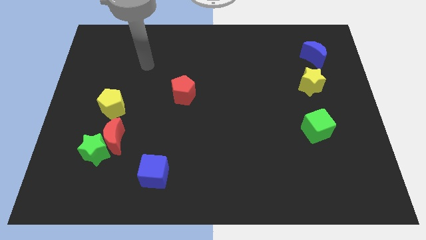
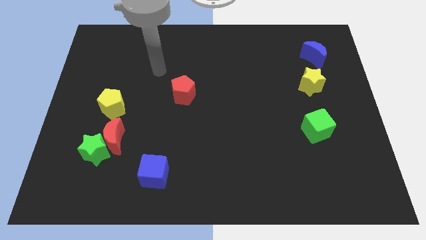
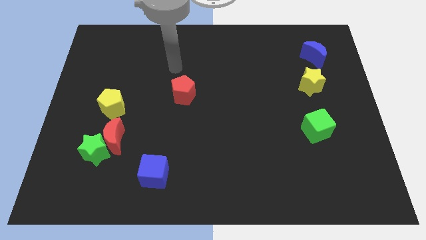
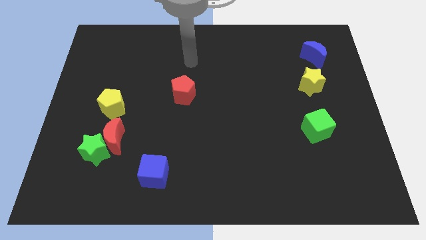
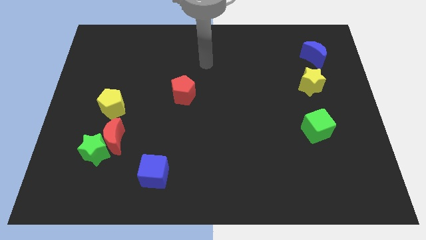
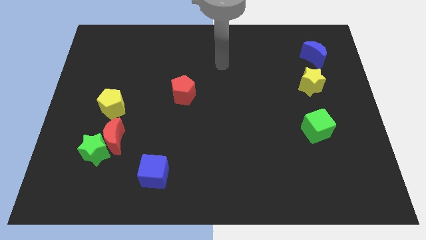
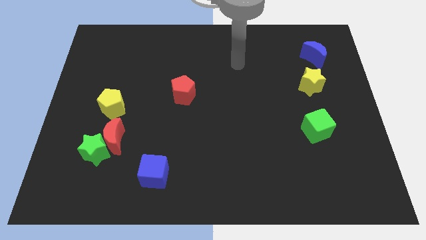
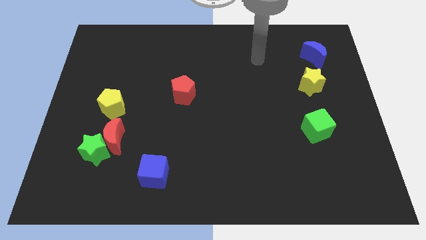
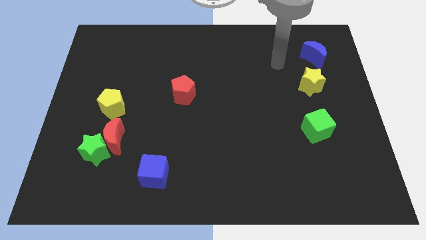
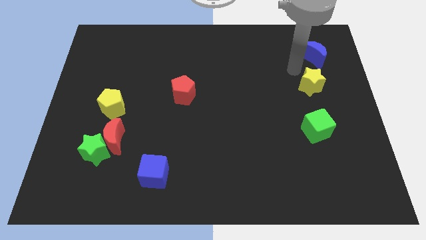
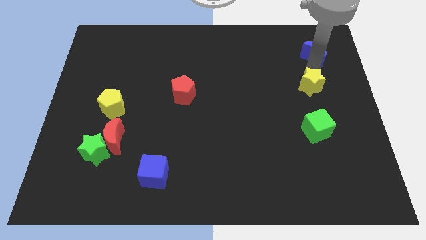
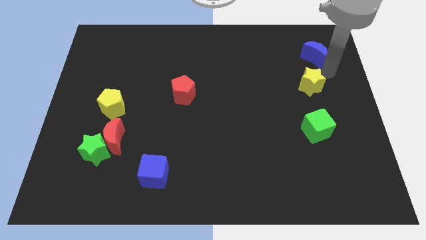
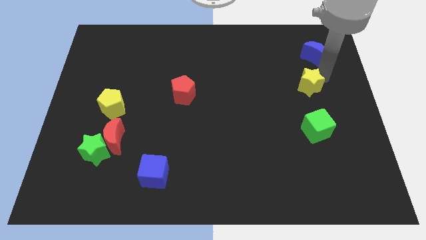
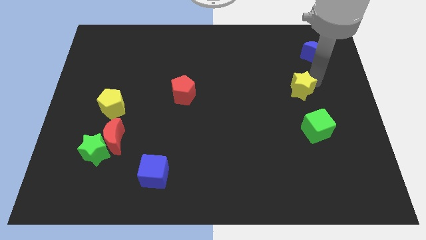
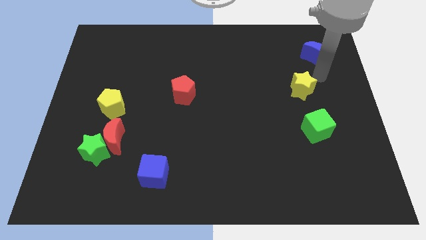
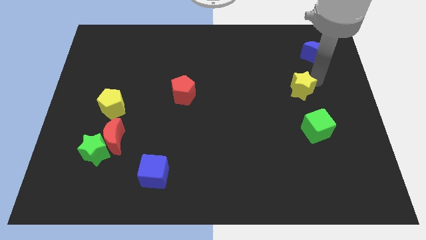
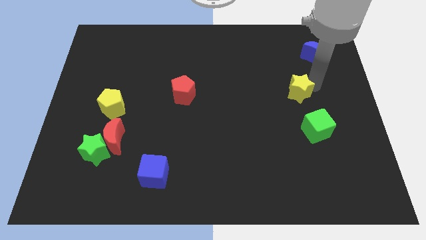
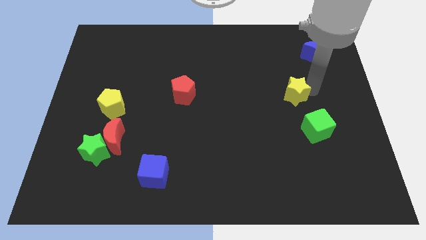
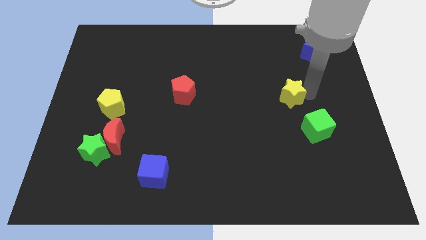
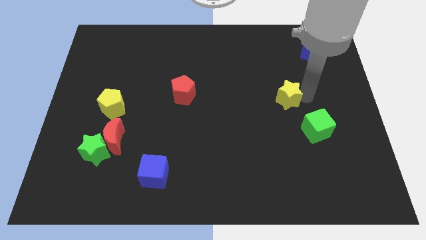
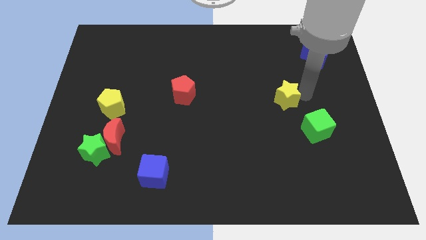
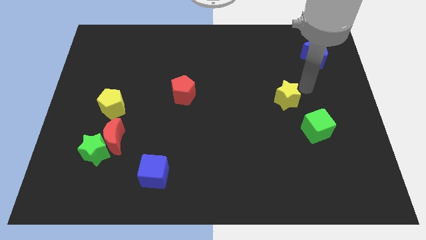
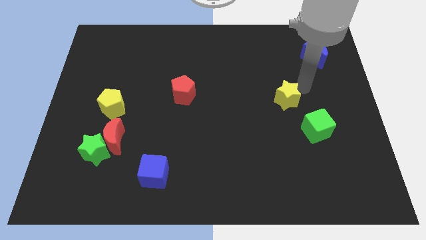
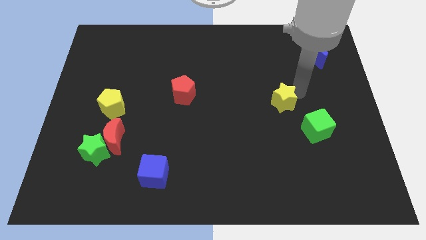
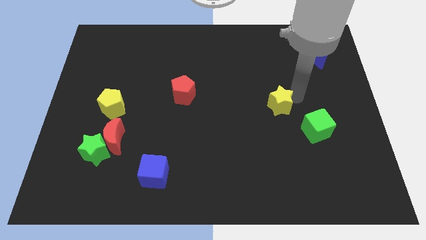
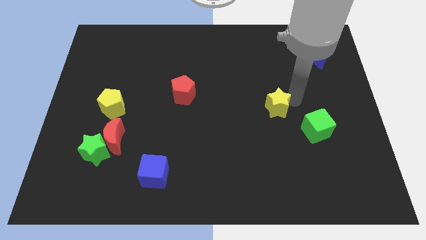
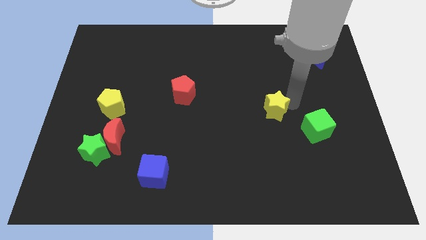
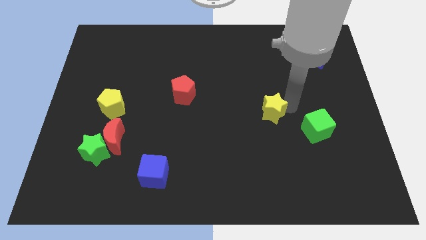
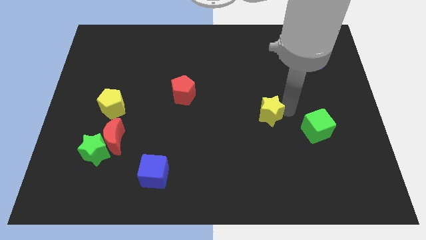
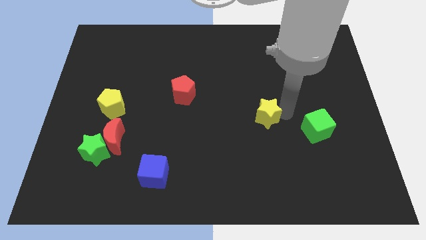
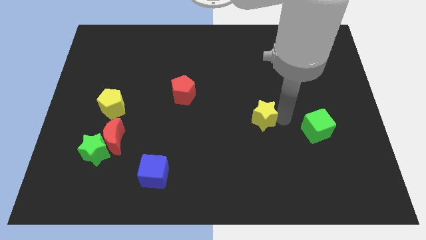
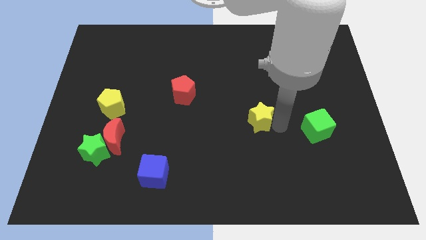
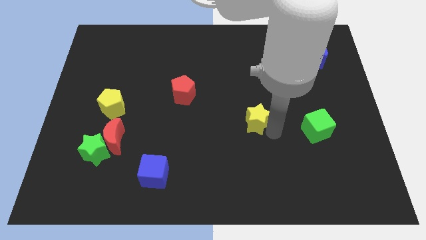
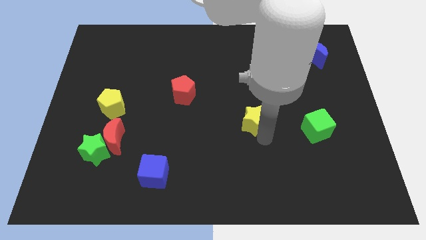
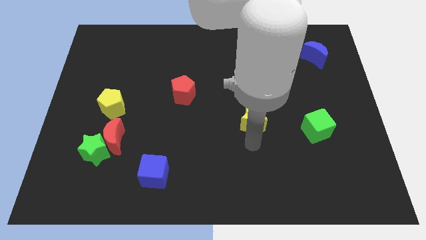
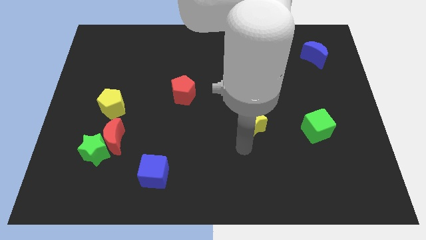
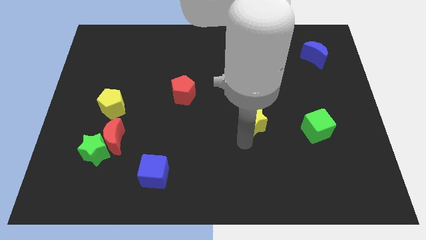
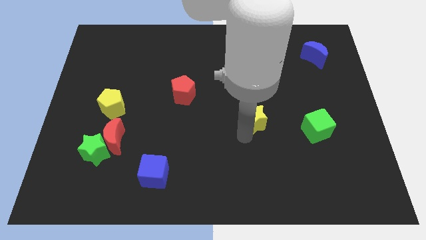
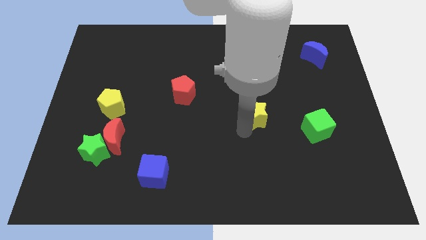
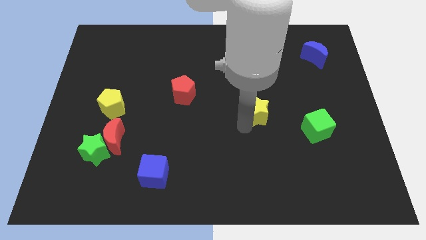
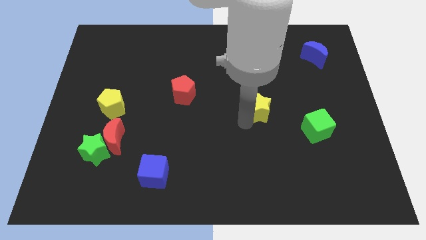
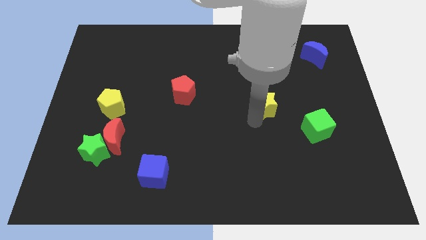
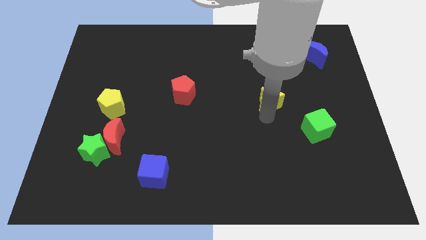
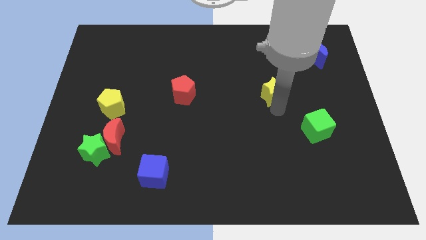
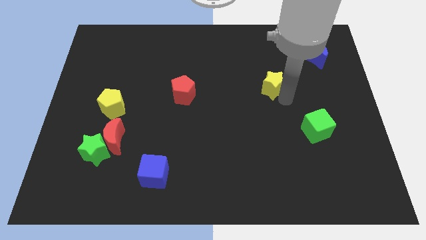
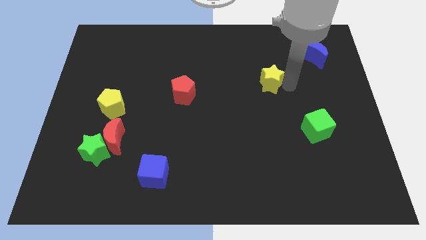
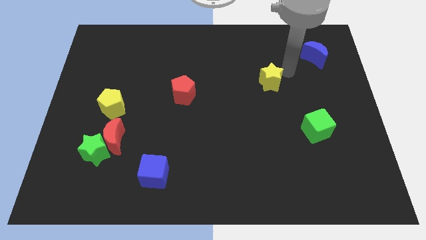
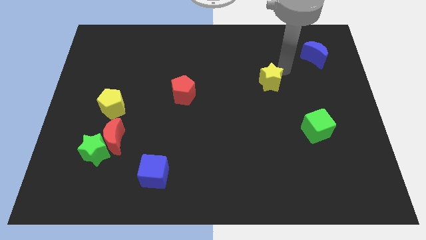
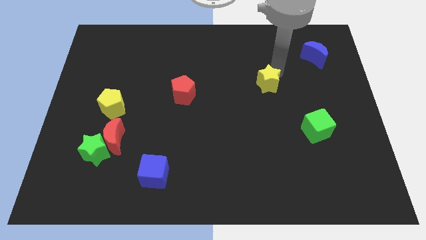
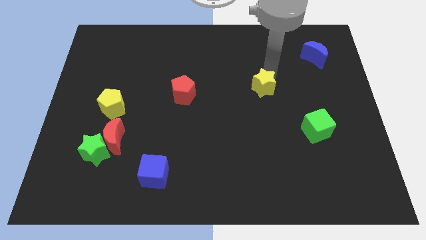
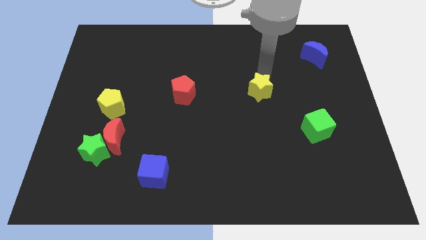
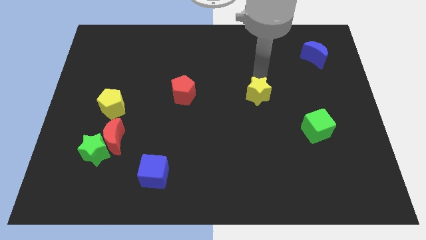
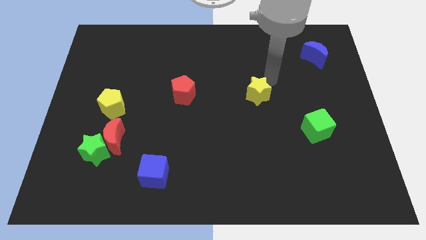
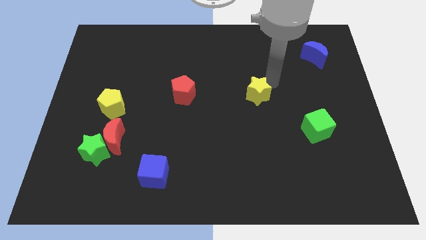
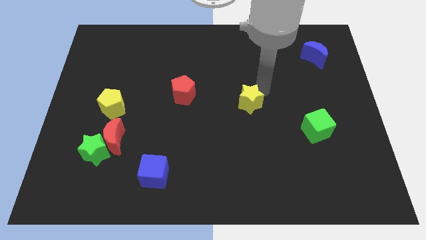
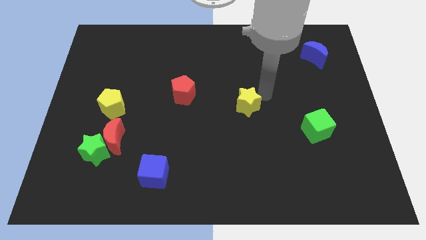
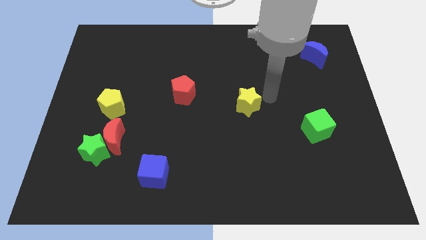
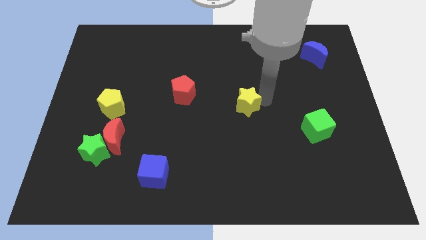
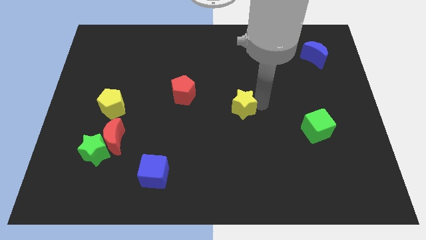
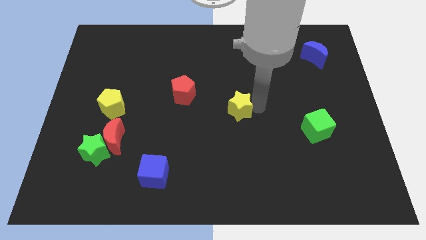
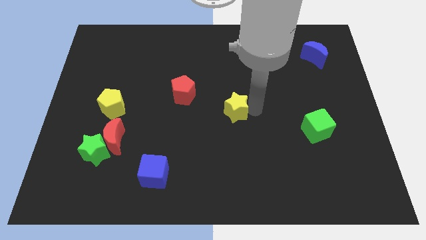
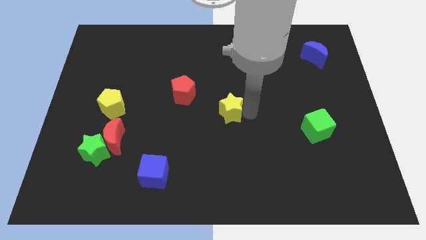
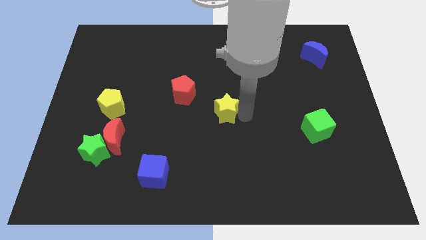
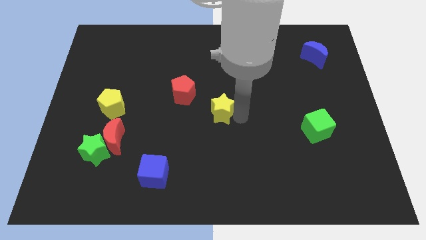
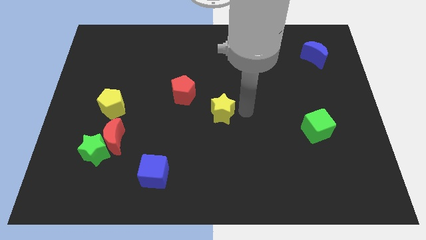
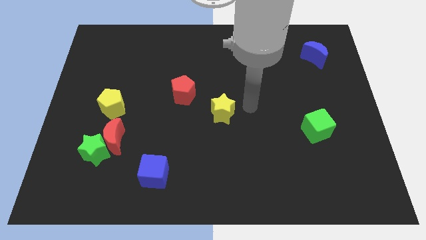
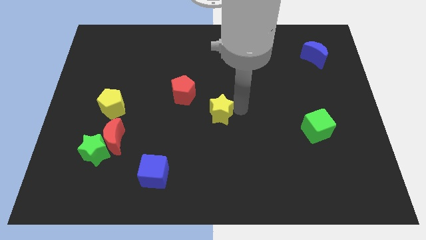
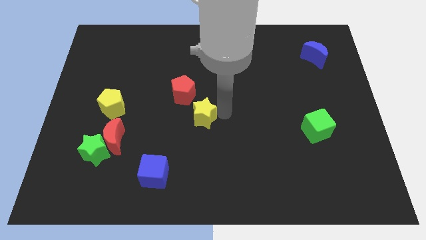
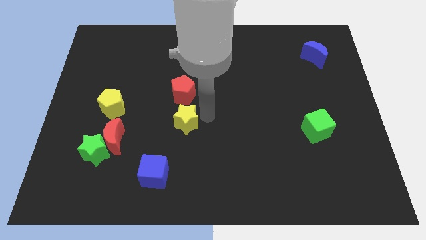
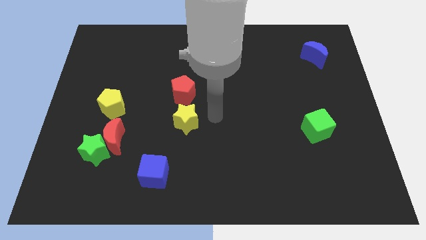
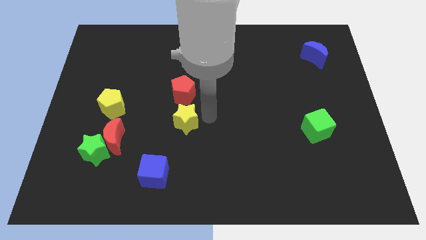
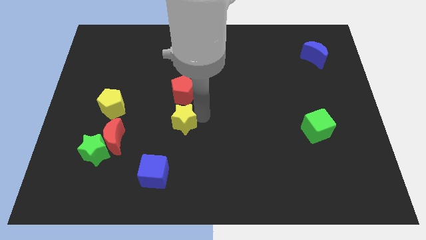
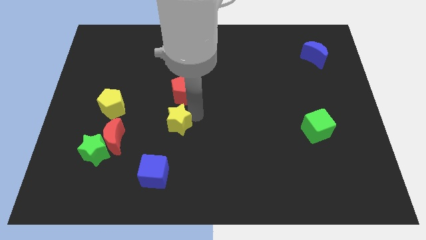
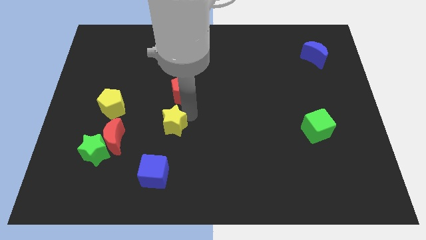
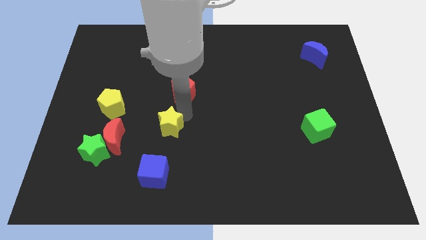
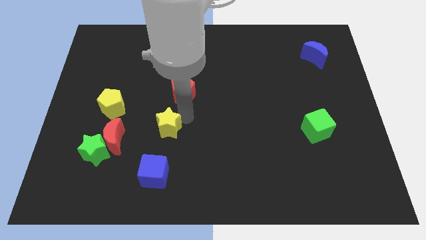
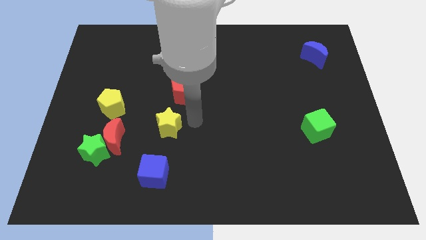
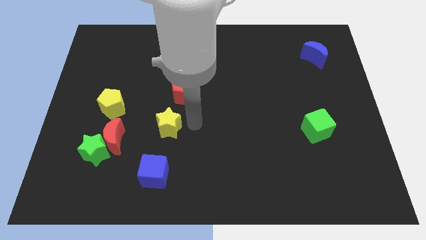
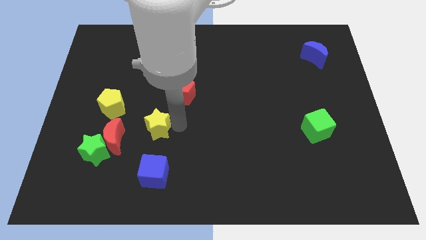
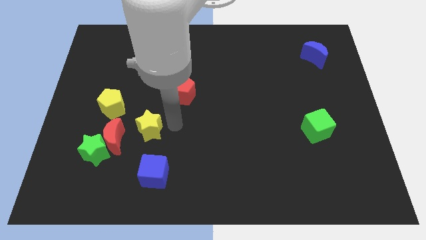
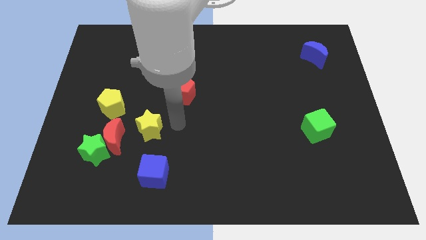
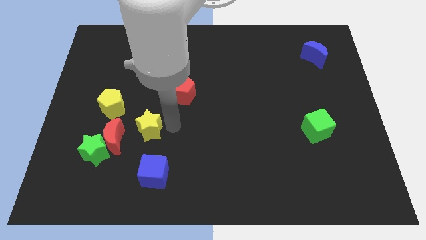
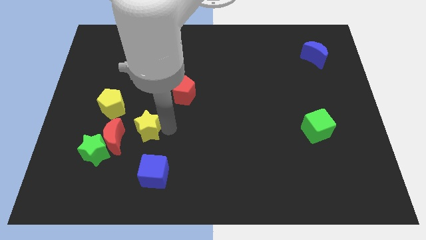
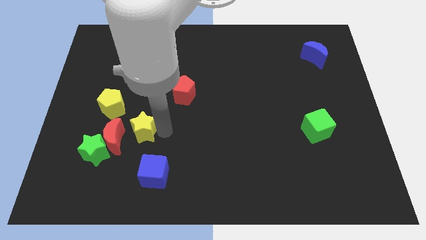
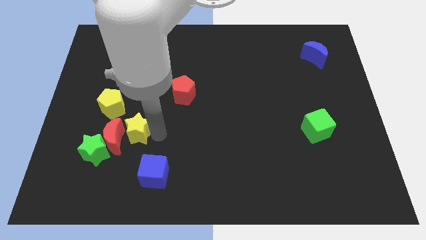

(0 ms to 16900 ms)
push the yellow star next to the red moon
